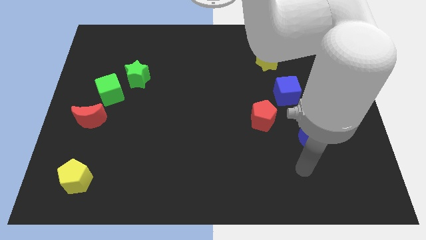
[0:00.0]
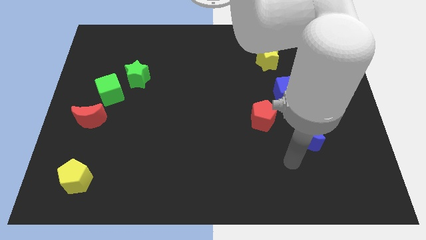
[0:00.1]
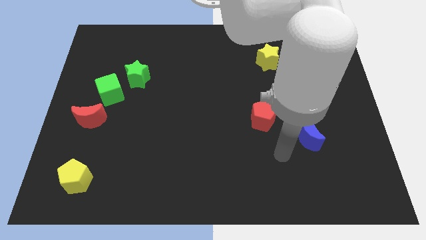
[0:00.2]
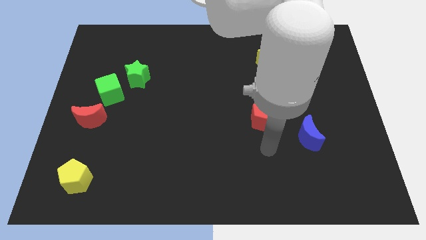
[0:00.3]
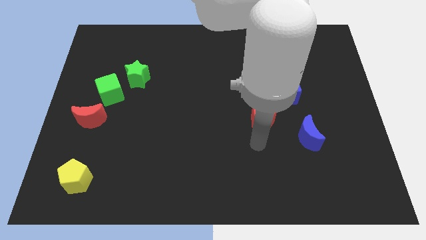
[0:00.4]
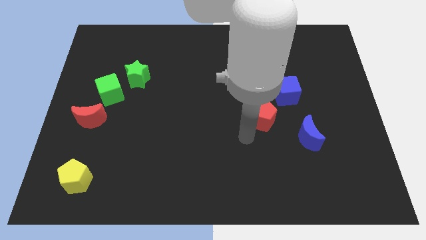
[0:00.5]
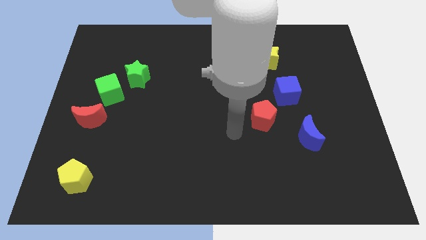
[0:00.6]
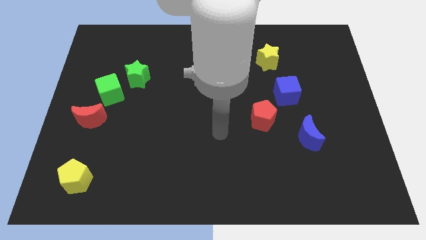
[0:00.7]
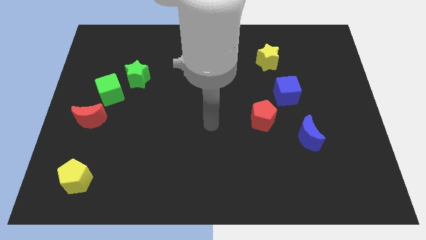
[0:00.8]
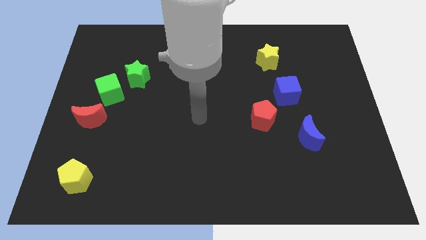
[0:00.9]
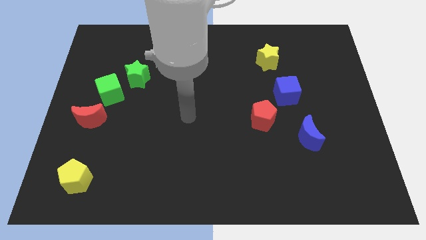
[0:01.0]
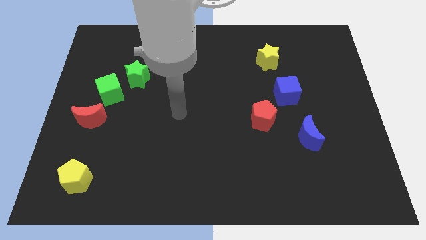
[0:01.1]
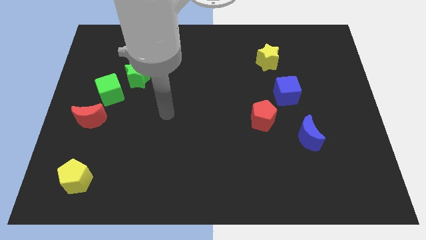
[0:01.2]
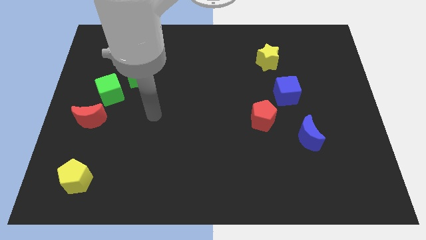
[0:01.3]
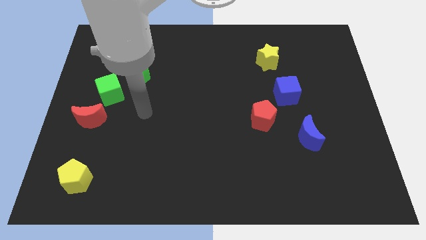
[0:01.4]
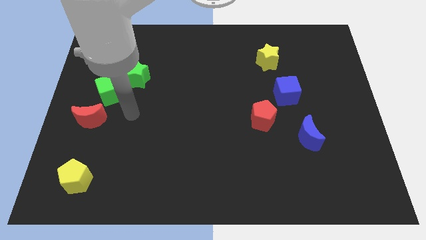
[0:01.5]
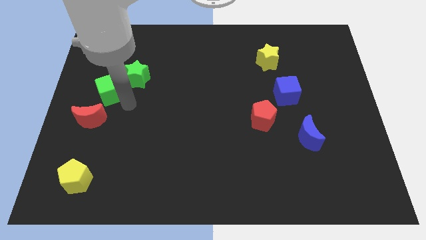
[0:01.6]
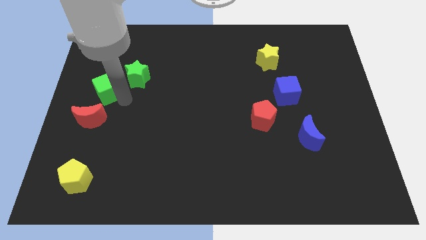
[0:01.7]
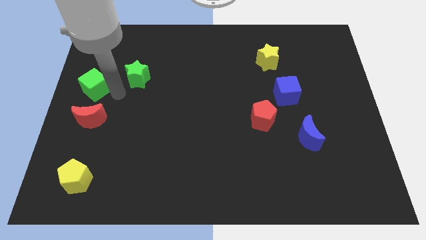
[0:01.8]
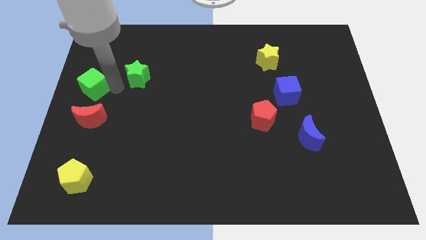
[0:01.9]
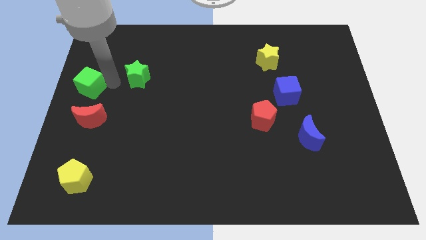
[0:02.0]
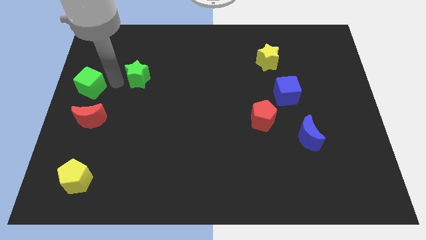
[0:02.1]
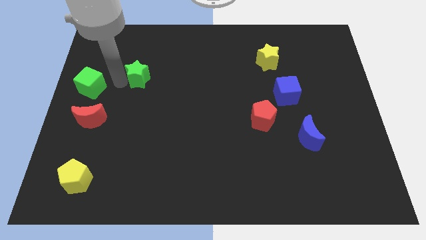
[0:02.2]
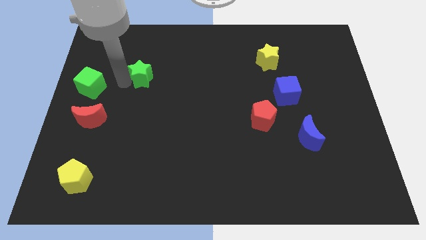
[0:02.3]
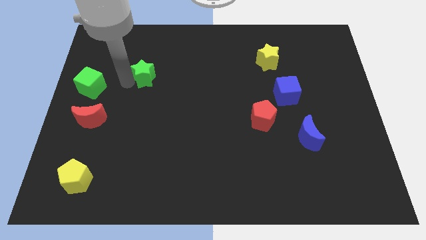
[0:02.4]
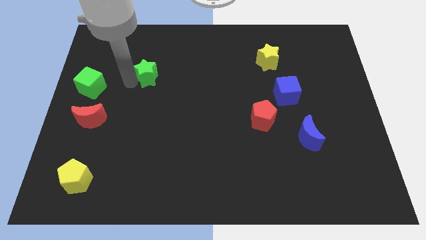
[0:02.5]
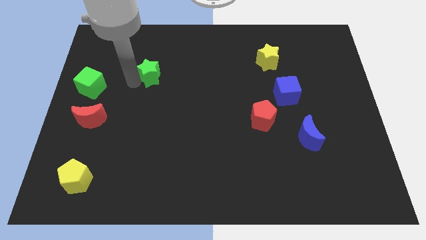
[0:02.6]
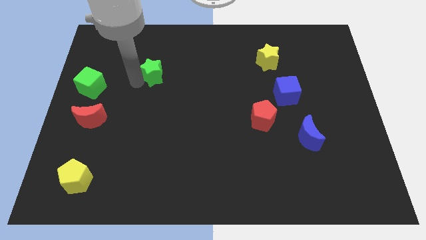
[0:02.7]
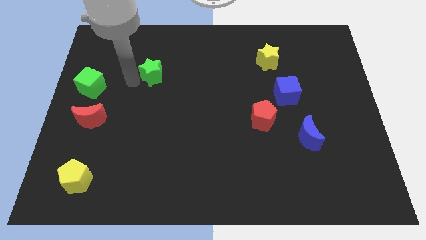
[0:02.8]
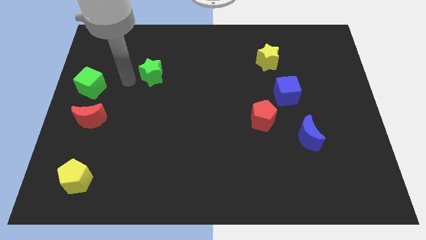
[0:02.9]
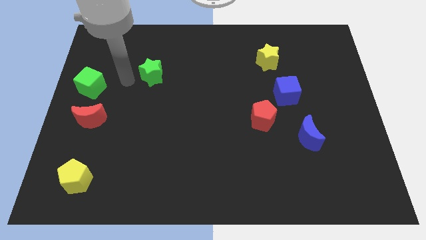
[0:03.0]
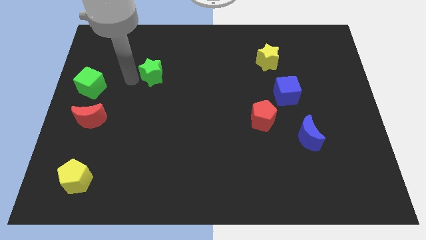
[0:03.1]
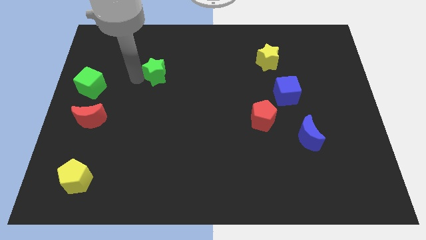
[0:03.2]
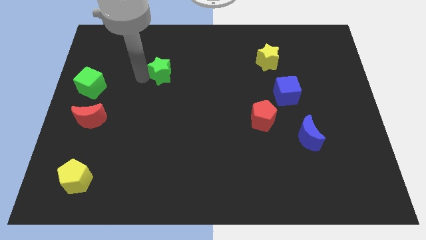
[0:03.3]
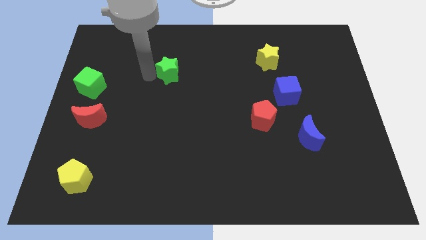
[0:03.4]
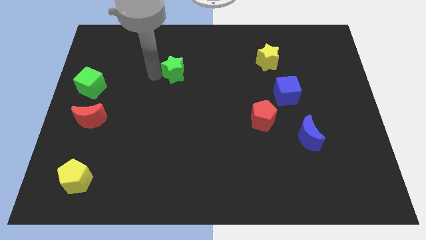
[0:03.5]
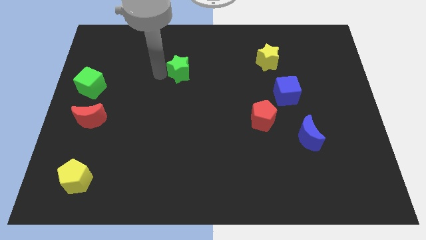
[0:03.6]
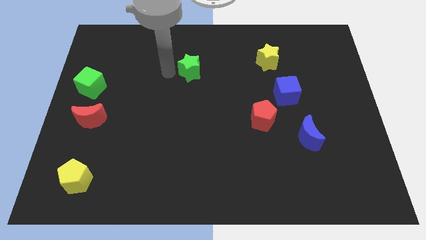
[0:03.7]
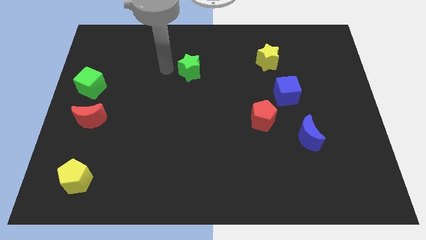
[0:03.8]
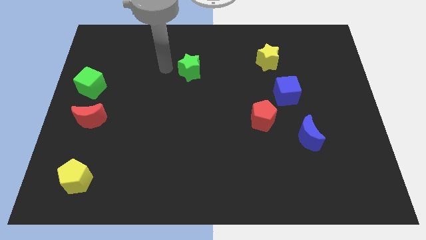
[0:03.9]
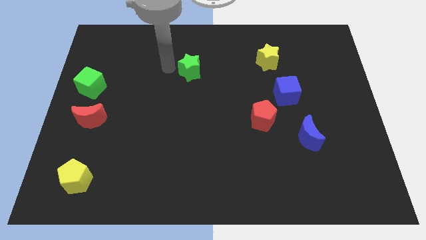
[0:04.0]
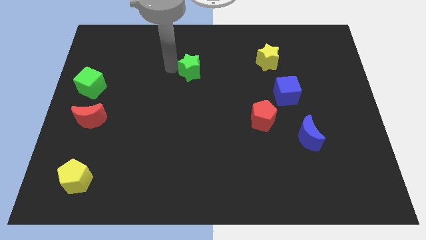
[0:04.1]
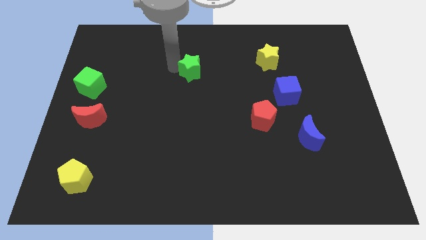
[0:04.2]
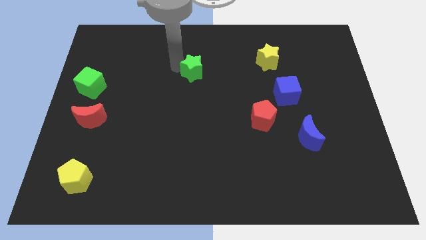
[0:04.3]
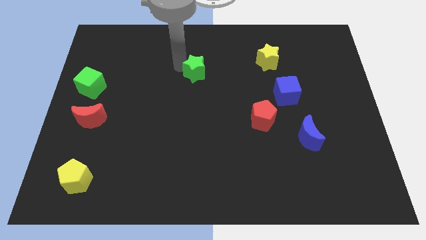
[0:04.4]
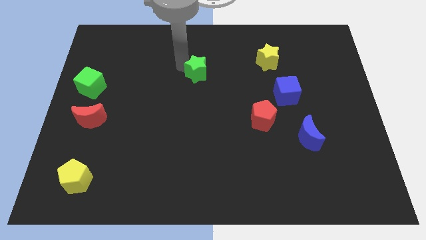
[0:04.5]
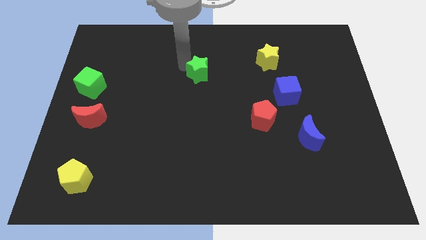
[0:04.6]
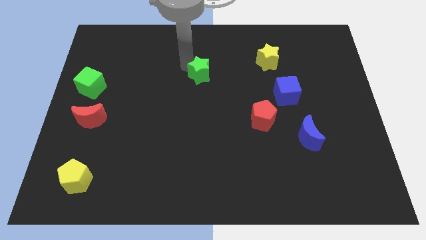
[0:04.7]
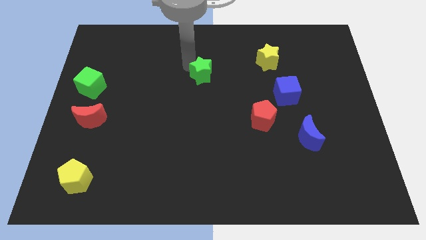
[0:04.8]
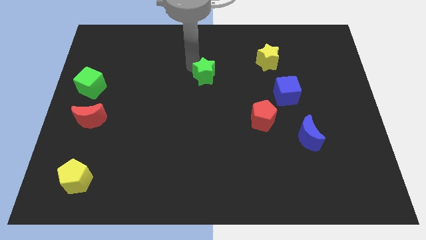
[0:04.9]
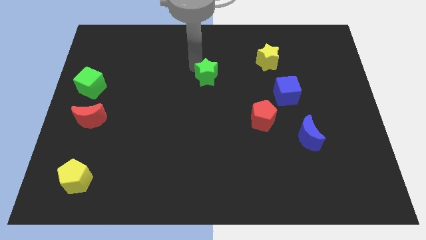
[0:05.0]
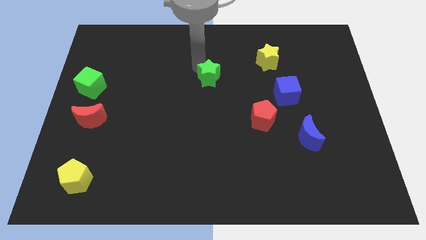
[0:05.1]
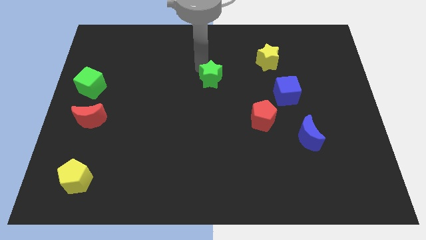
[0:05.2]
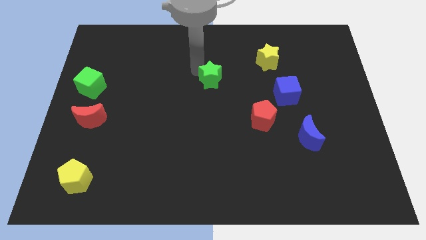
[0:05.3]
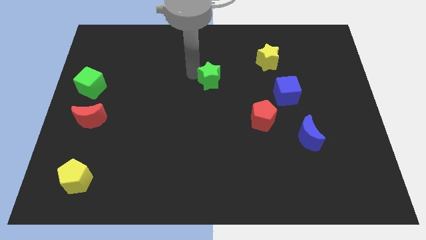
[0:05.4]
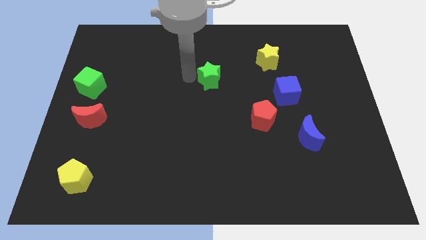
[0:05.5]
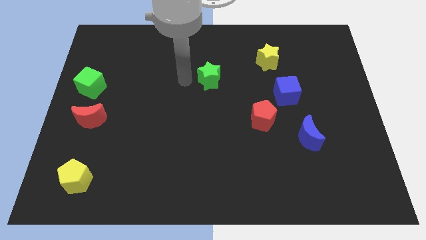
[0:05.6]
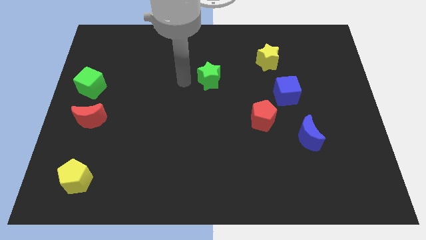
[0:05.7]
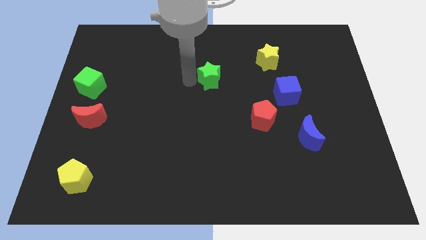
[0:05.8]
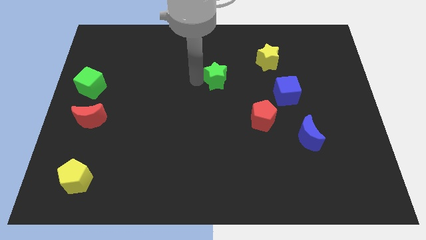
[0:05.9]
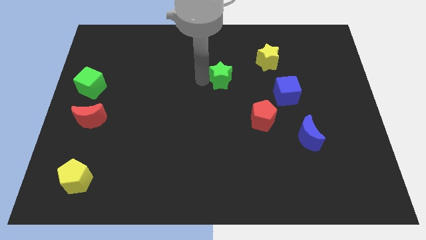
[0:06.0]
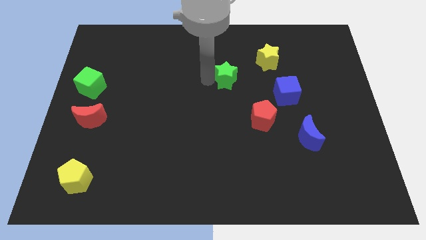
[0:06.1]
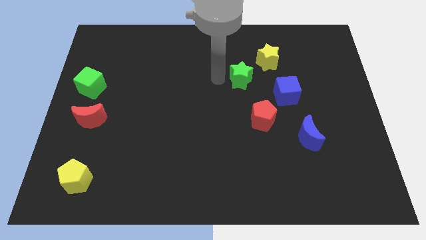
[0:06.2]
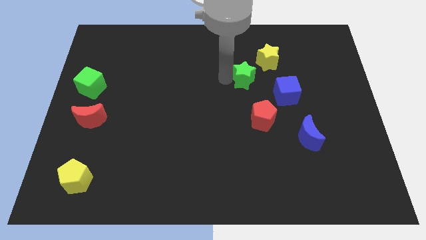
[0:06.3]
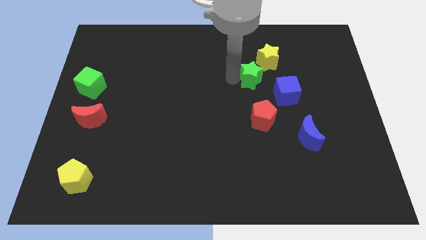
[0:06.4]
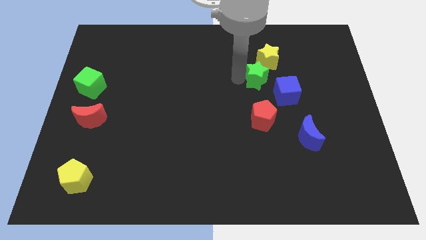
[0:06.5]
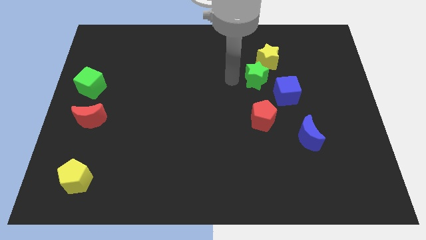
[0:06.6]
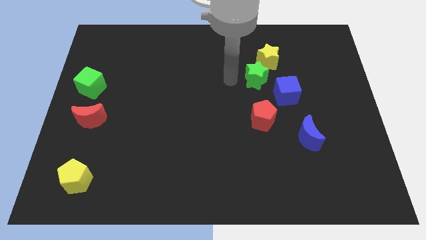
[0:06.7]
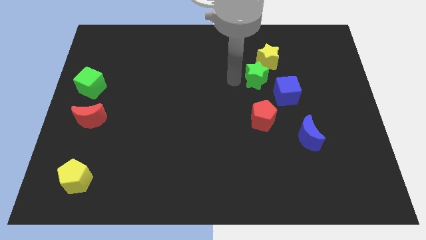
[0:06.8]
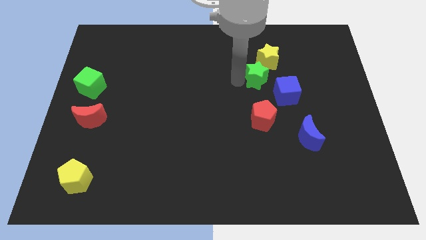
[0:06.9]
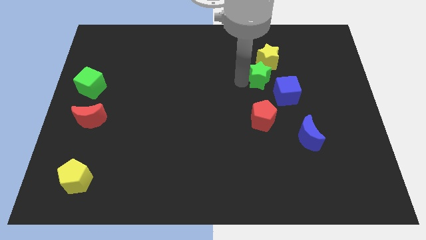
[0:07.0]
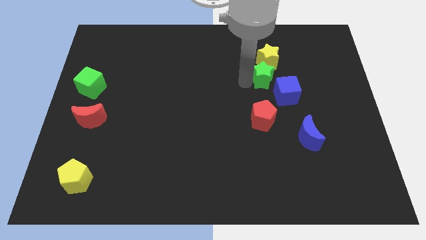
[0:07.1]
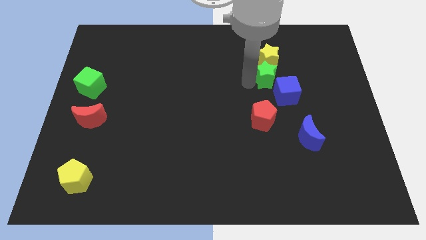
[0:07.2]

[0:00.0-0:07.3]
slide the green star to the bottom right side of the yellow star
